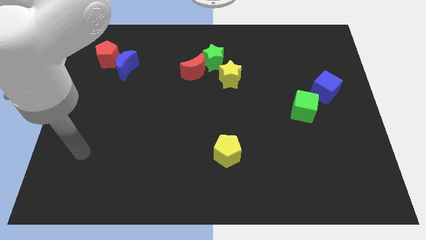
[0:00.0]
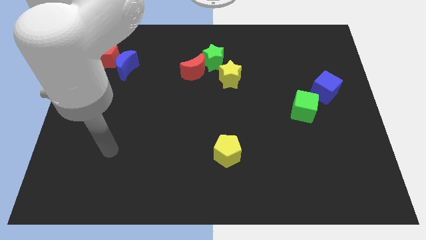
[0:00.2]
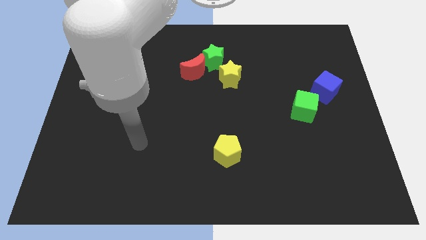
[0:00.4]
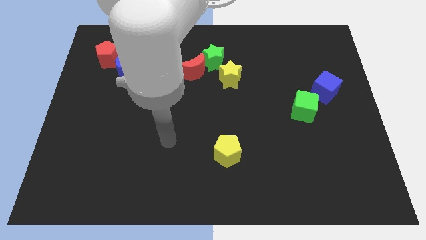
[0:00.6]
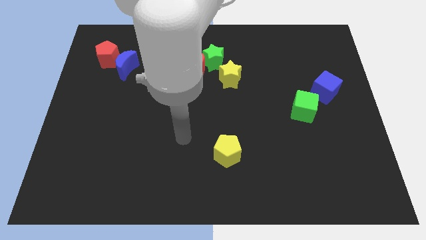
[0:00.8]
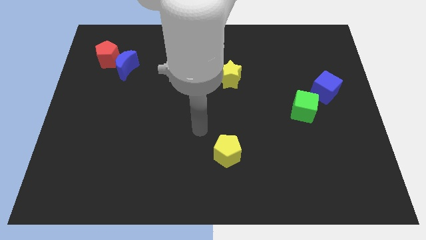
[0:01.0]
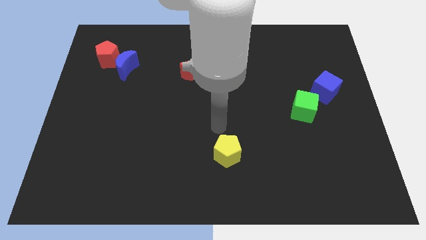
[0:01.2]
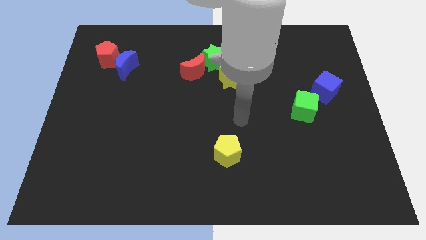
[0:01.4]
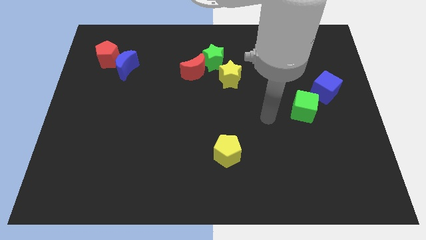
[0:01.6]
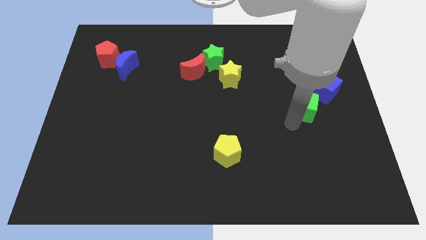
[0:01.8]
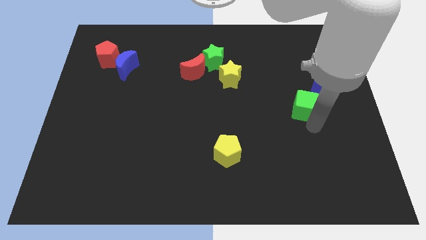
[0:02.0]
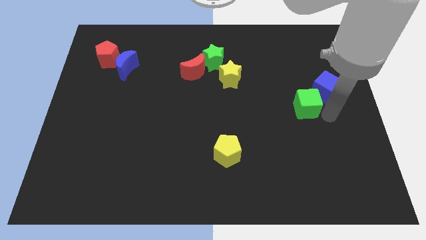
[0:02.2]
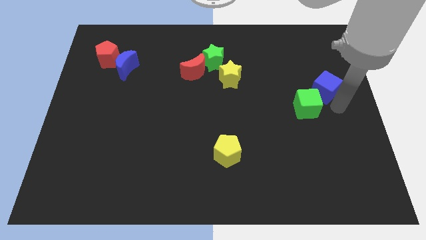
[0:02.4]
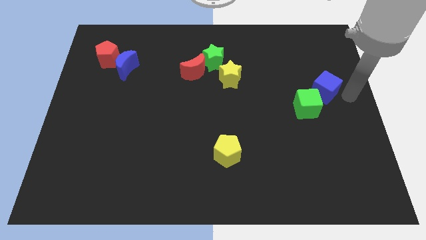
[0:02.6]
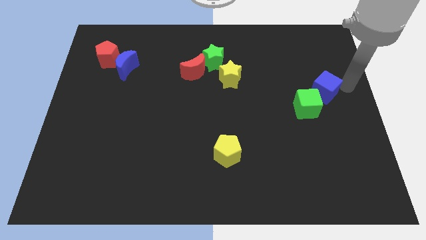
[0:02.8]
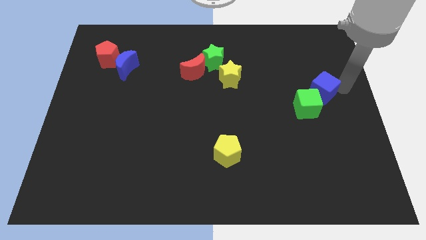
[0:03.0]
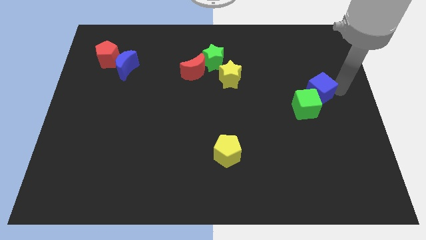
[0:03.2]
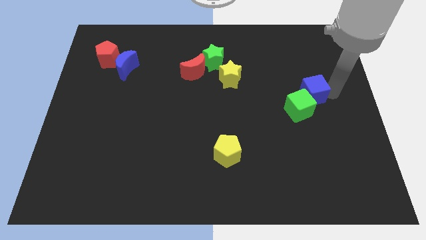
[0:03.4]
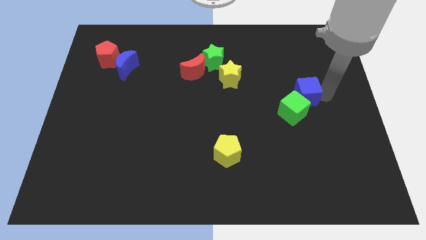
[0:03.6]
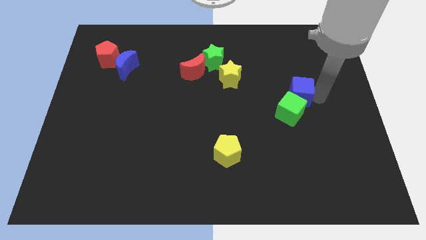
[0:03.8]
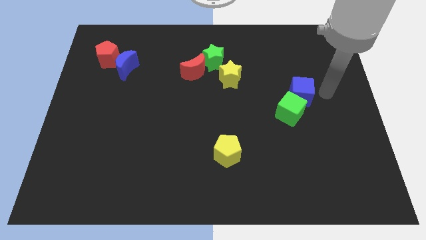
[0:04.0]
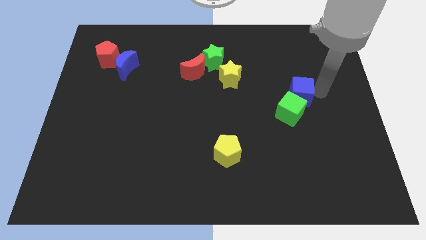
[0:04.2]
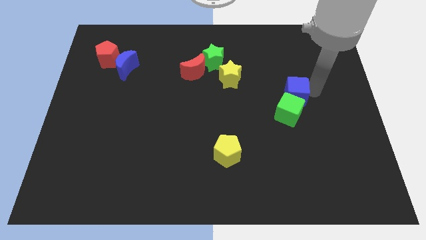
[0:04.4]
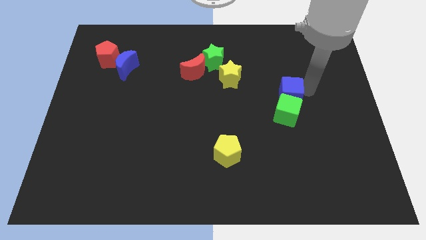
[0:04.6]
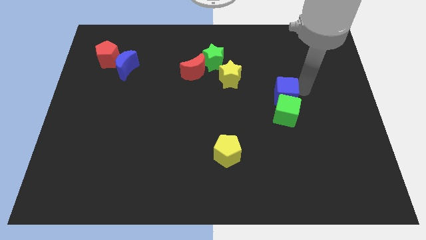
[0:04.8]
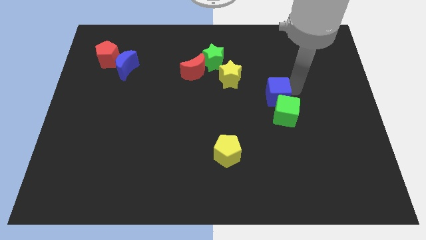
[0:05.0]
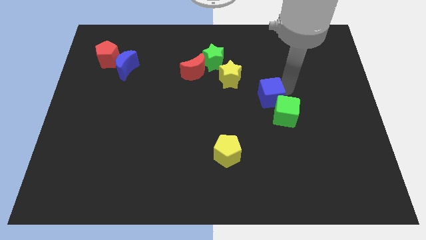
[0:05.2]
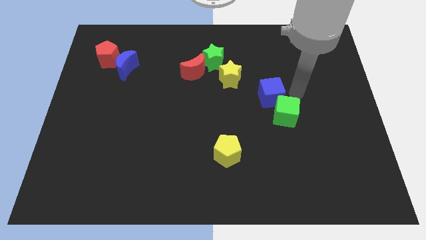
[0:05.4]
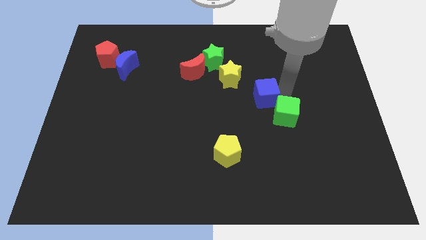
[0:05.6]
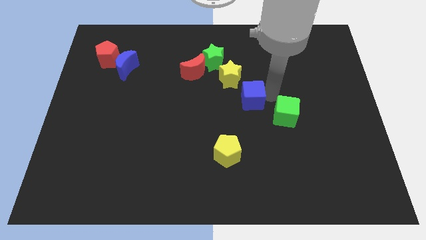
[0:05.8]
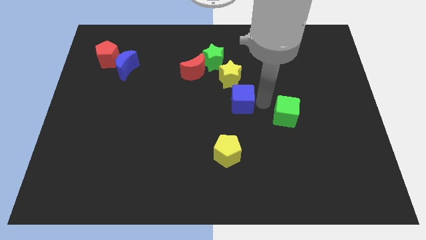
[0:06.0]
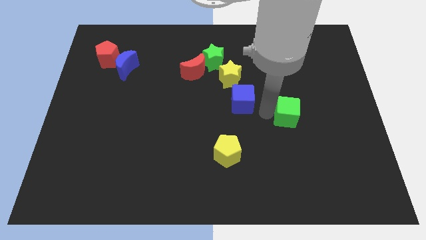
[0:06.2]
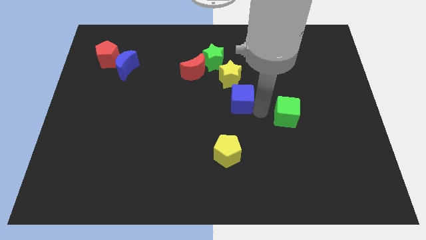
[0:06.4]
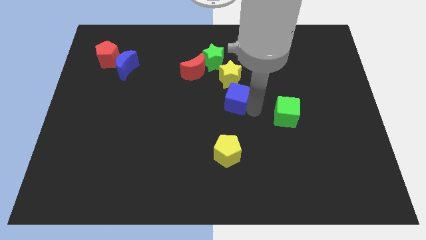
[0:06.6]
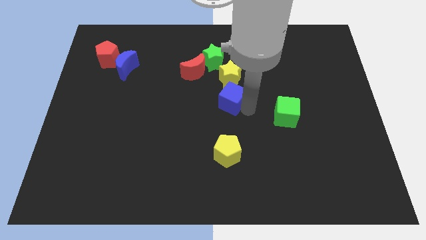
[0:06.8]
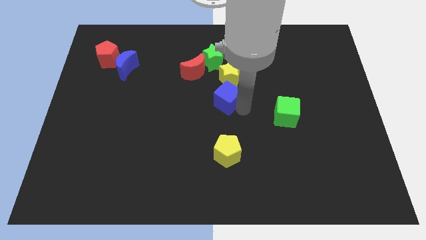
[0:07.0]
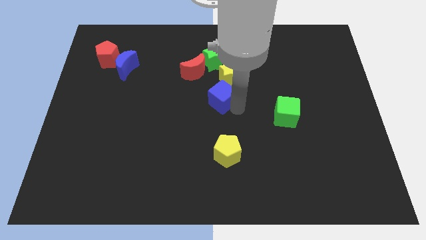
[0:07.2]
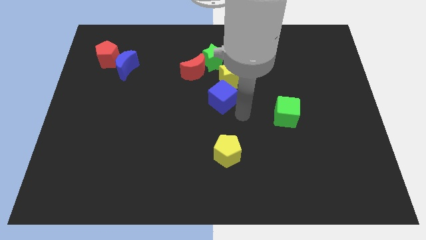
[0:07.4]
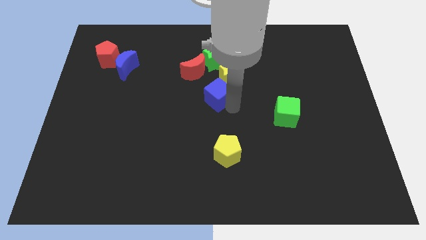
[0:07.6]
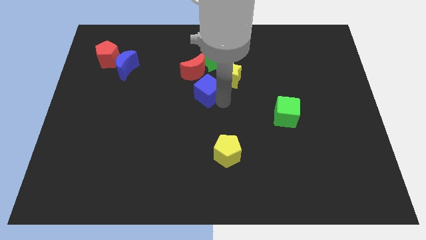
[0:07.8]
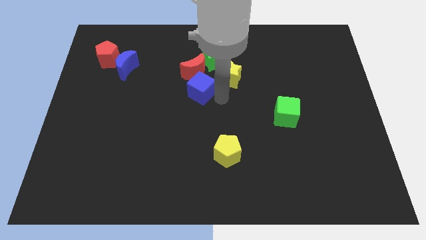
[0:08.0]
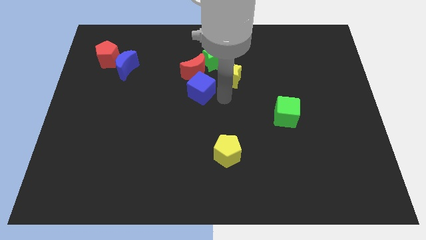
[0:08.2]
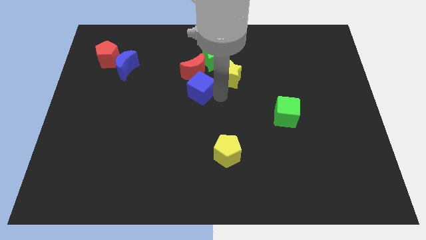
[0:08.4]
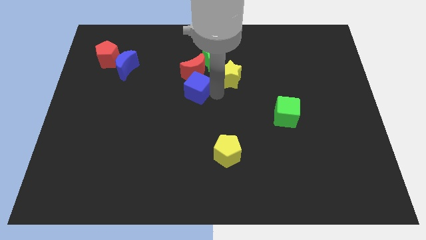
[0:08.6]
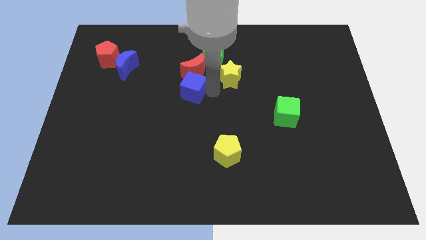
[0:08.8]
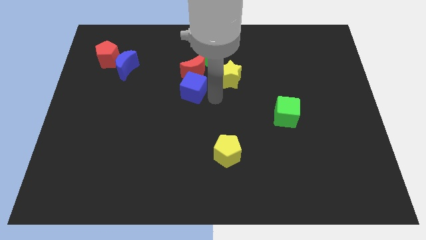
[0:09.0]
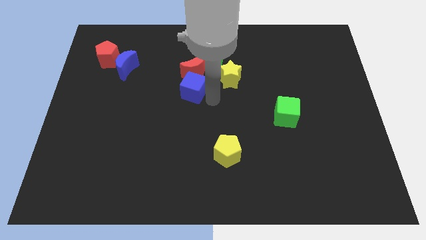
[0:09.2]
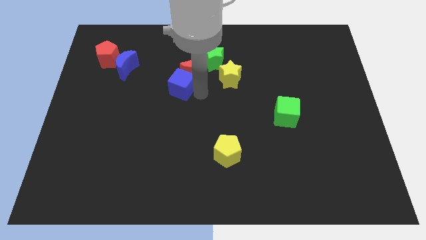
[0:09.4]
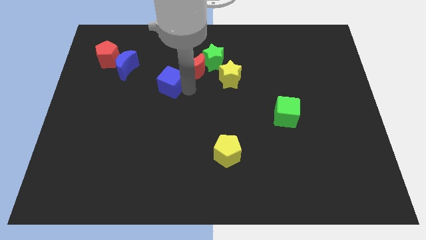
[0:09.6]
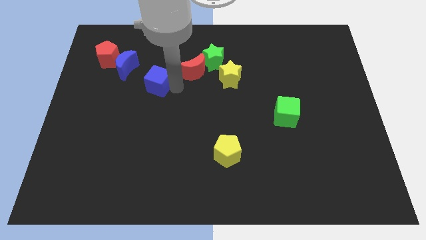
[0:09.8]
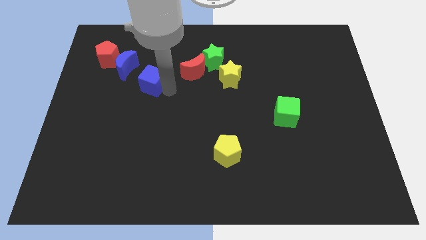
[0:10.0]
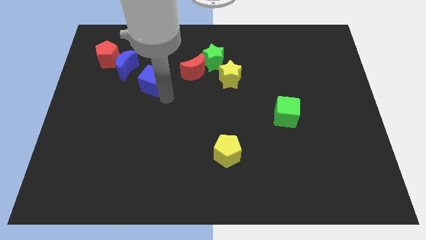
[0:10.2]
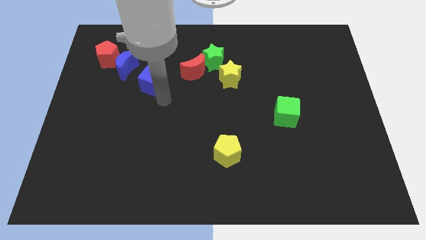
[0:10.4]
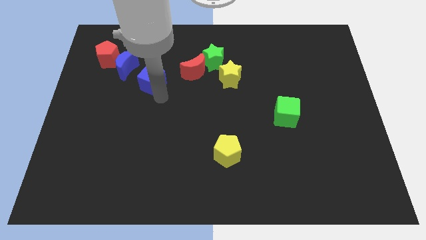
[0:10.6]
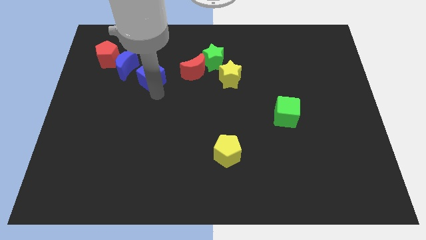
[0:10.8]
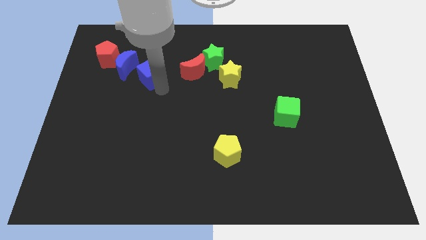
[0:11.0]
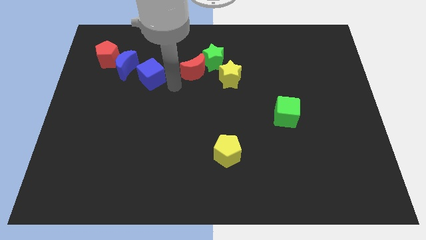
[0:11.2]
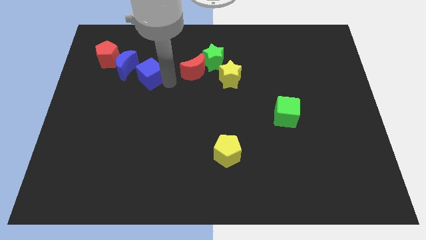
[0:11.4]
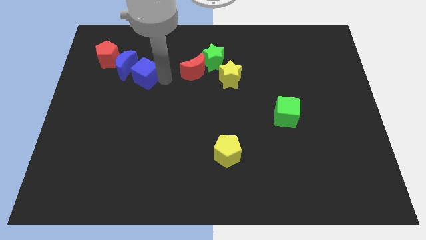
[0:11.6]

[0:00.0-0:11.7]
slide the blue cube close to the blue moon

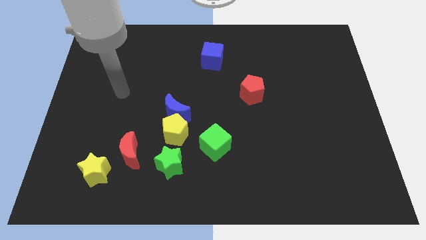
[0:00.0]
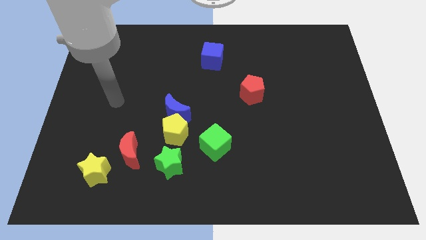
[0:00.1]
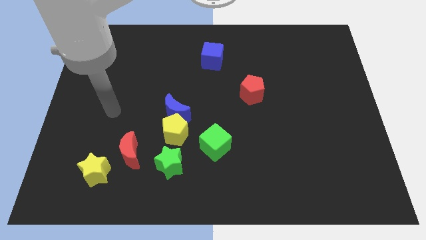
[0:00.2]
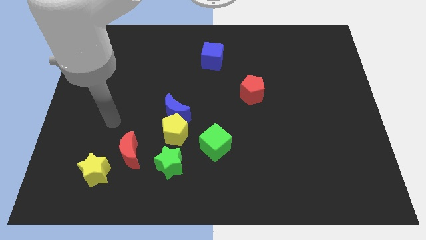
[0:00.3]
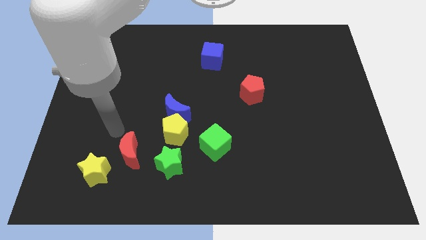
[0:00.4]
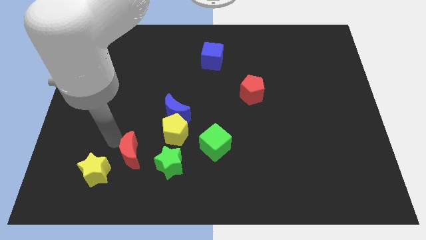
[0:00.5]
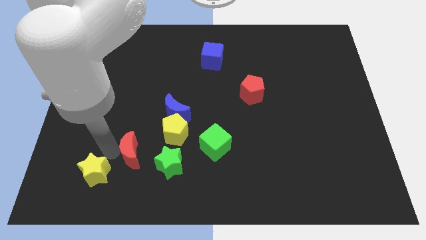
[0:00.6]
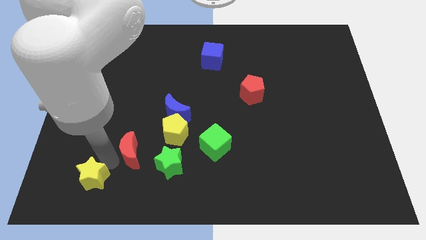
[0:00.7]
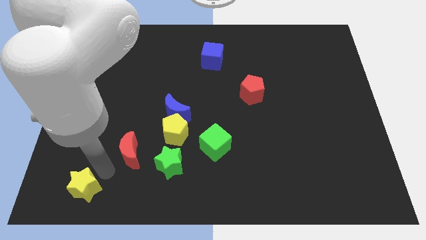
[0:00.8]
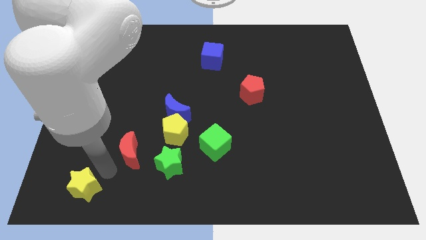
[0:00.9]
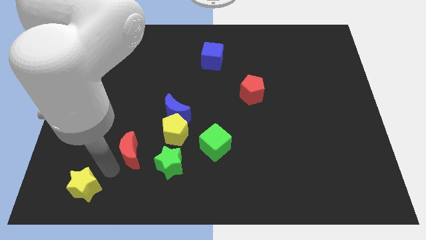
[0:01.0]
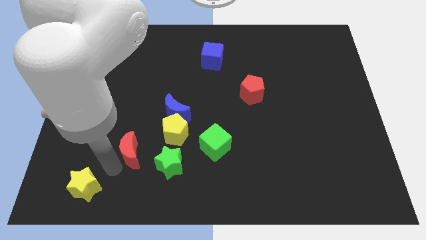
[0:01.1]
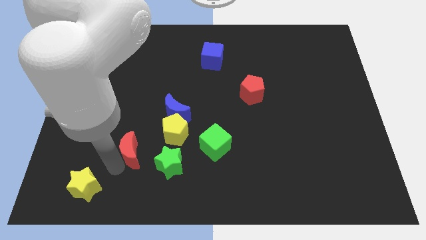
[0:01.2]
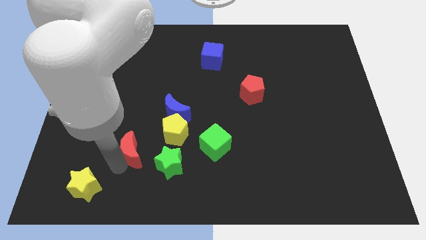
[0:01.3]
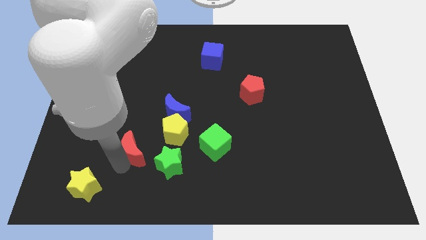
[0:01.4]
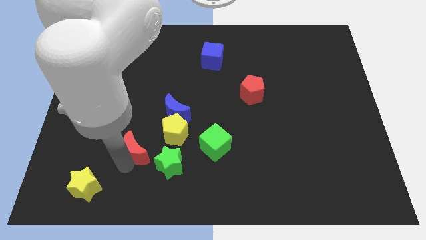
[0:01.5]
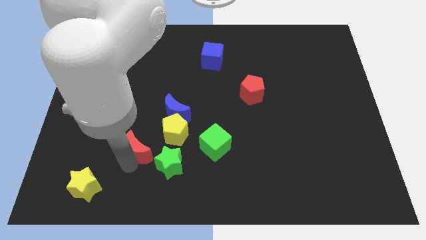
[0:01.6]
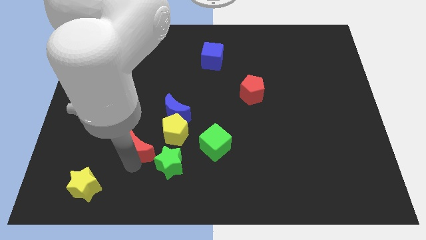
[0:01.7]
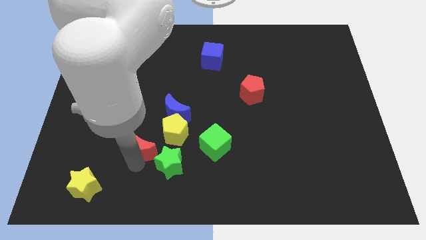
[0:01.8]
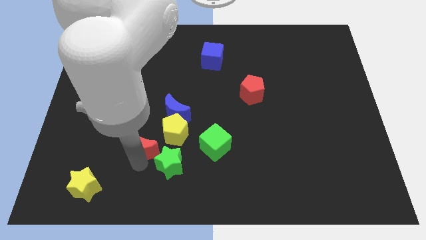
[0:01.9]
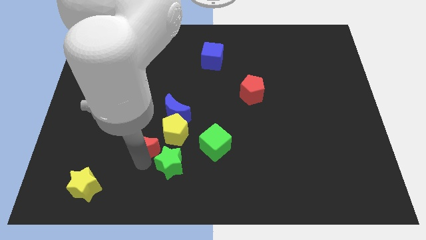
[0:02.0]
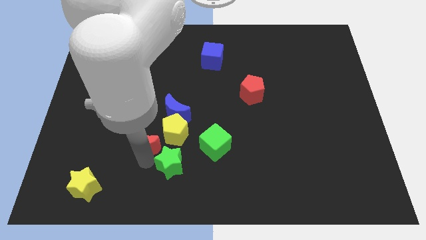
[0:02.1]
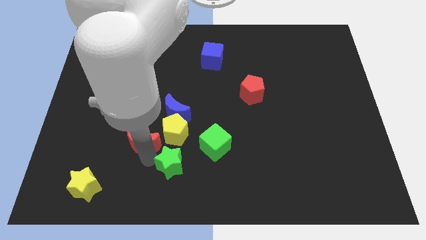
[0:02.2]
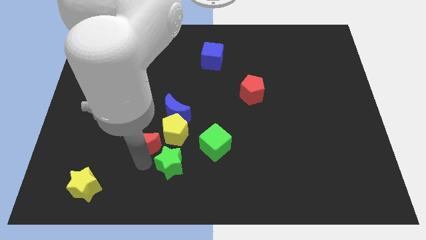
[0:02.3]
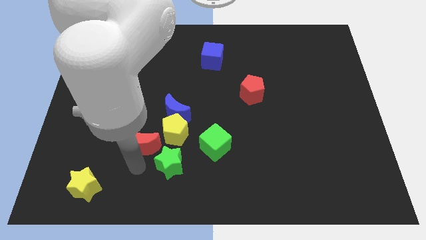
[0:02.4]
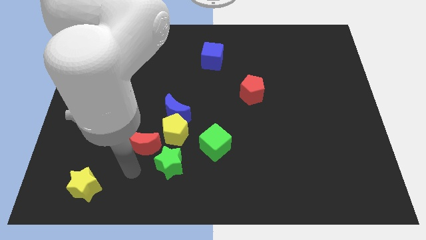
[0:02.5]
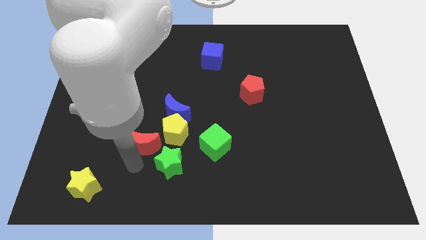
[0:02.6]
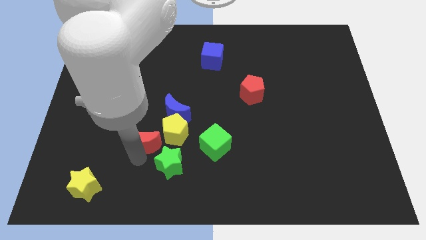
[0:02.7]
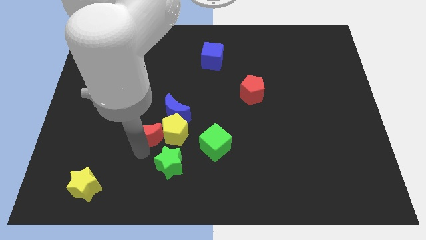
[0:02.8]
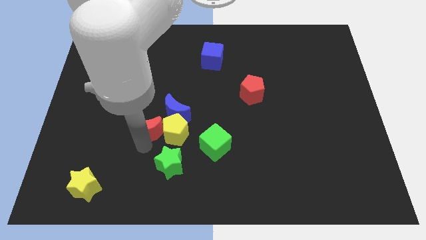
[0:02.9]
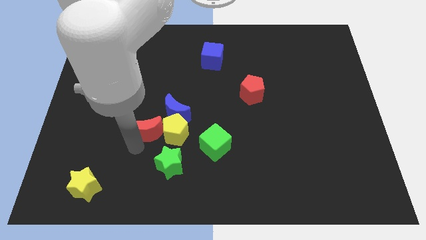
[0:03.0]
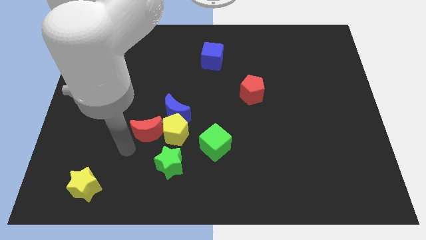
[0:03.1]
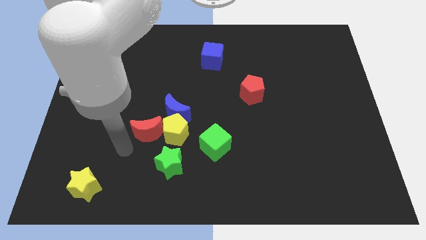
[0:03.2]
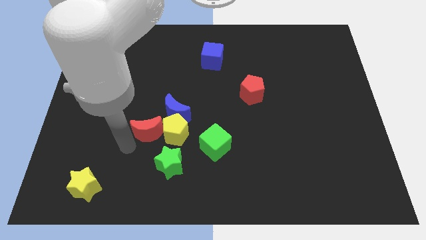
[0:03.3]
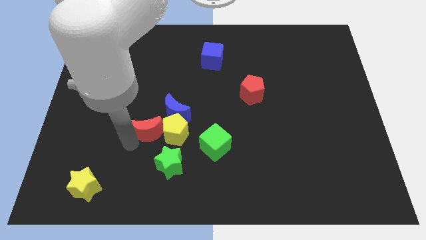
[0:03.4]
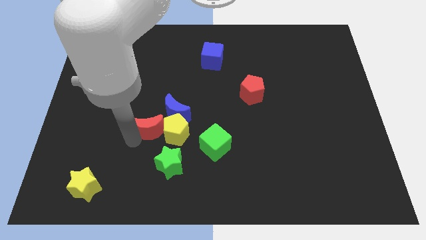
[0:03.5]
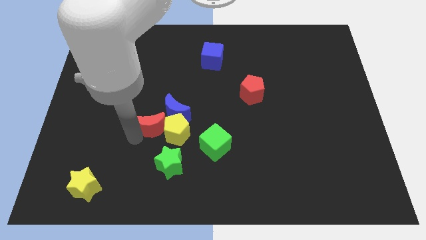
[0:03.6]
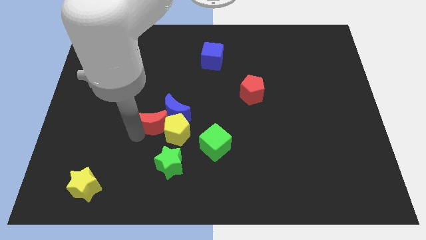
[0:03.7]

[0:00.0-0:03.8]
push the red moon to the blue moon
